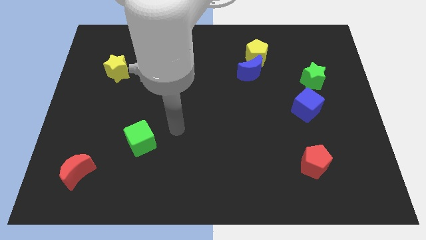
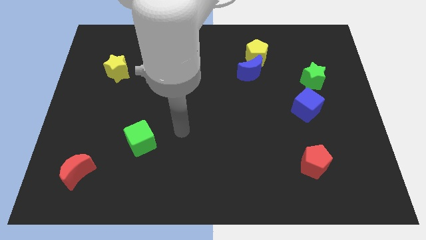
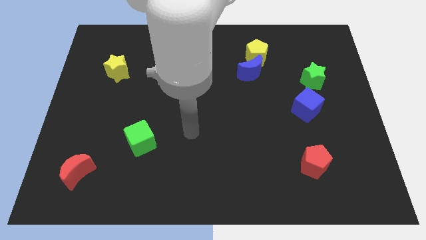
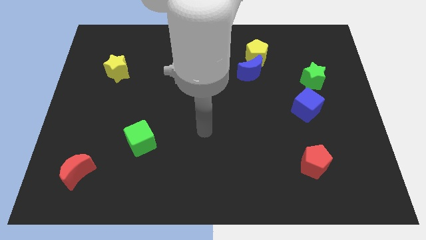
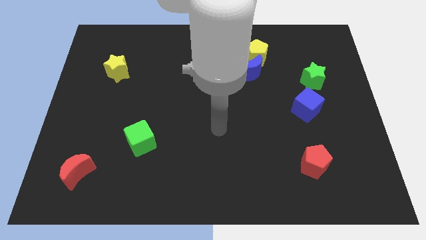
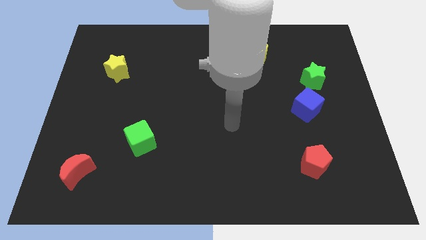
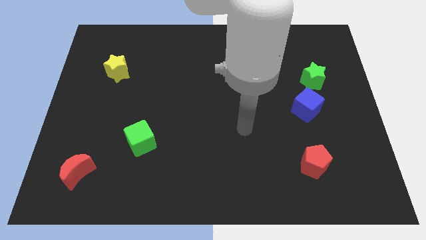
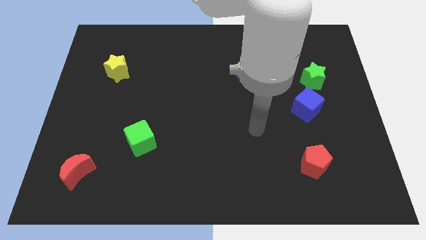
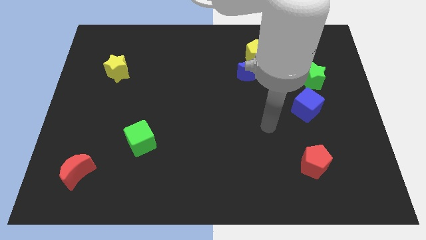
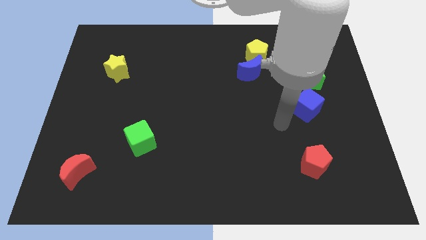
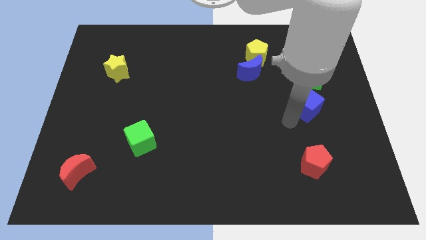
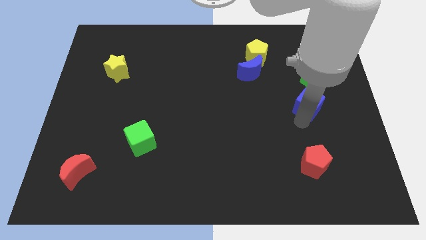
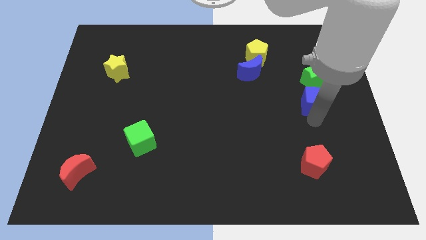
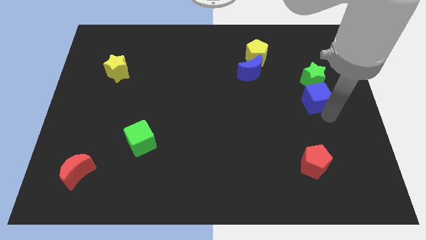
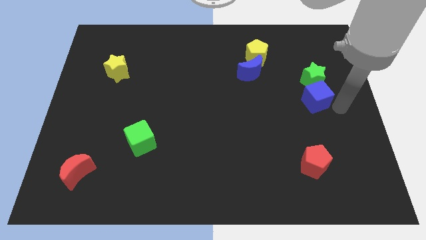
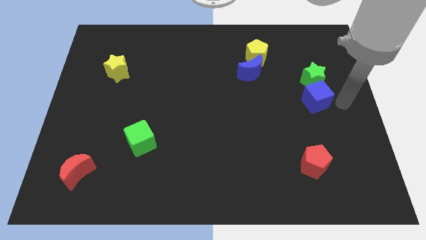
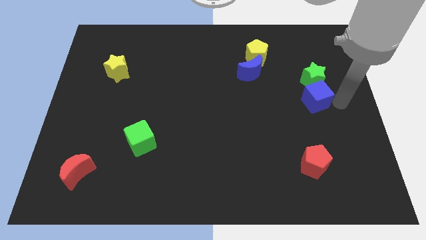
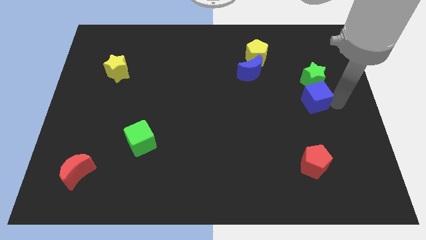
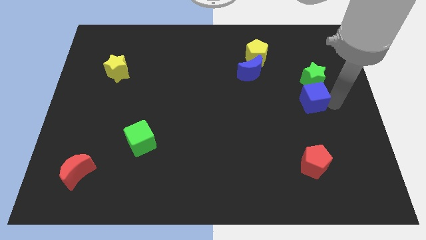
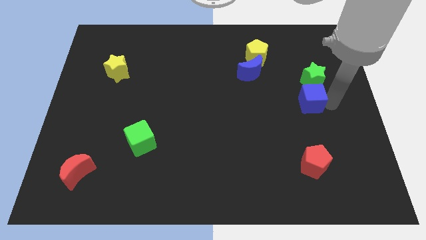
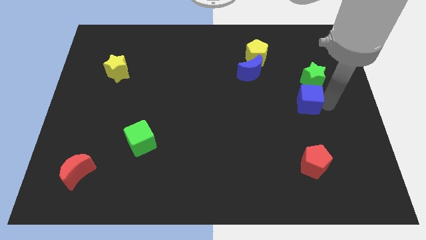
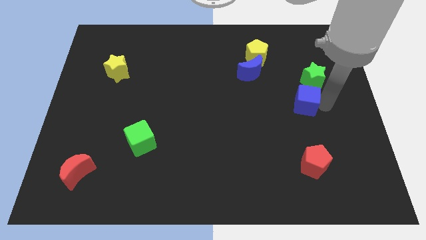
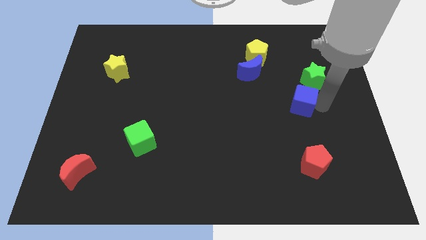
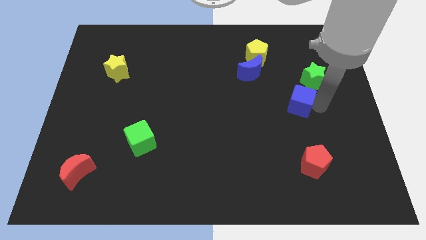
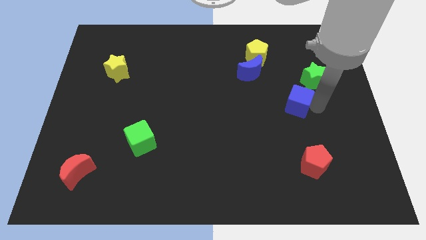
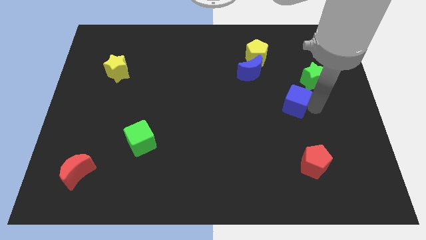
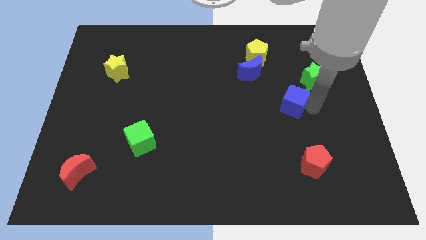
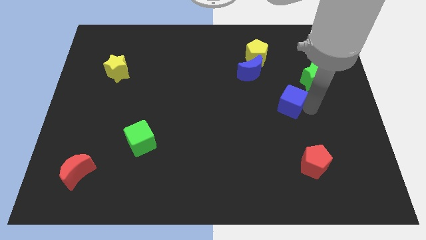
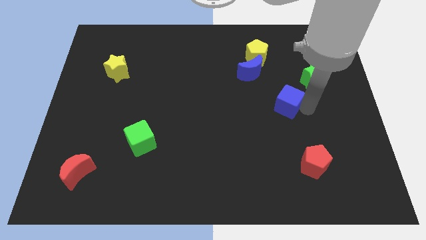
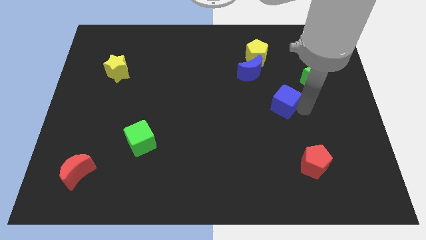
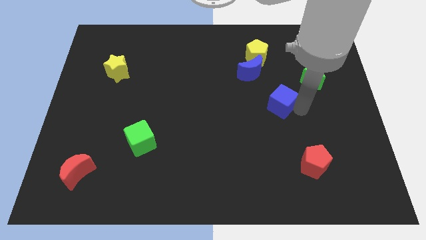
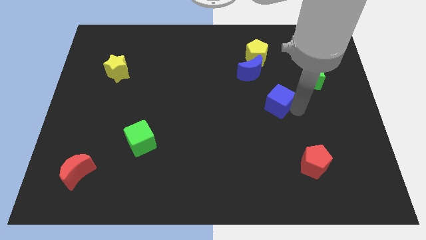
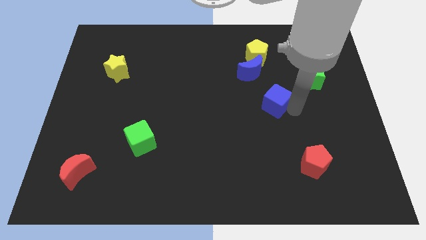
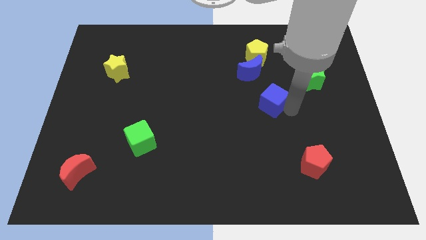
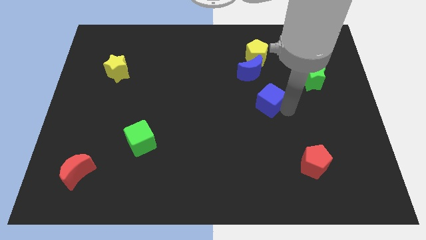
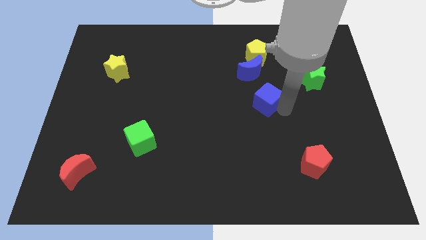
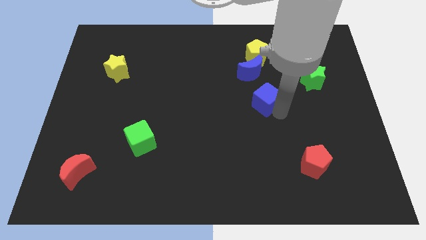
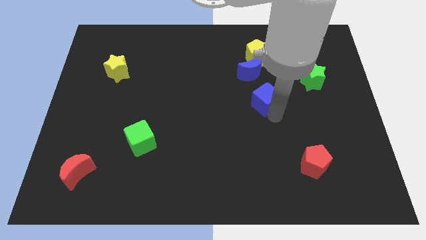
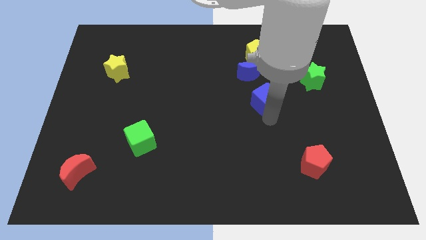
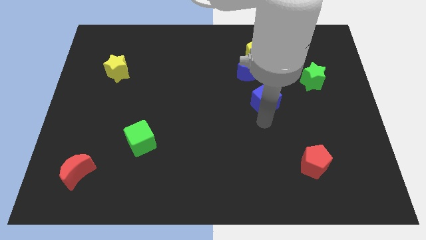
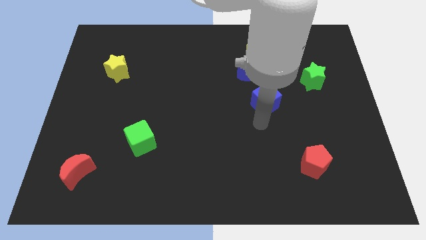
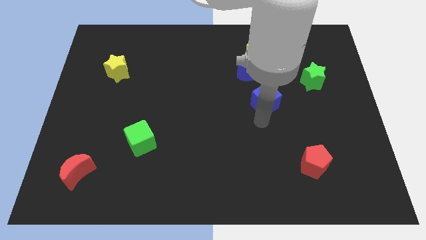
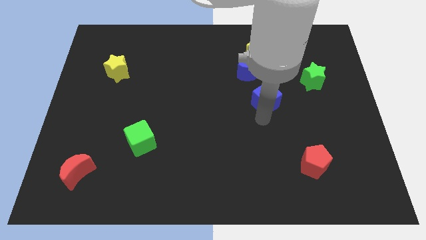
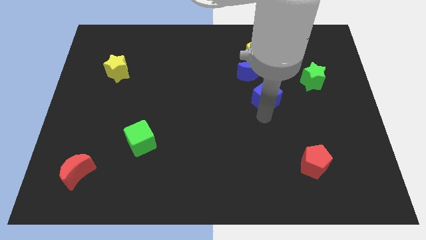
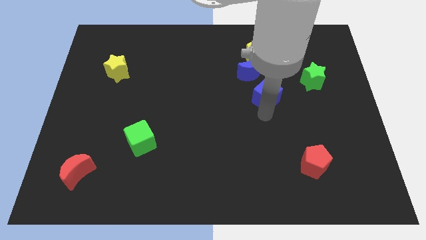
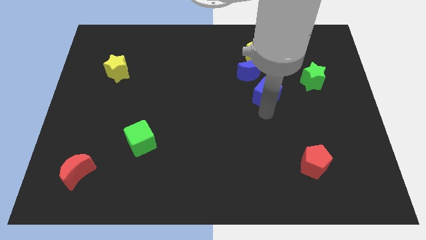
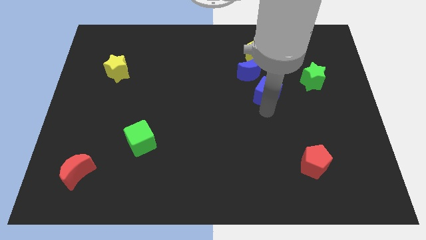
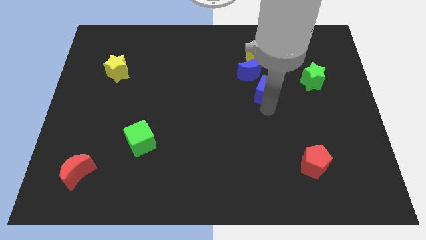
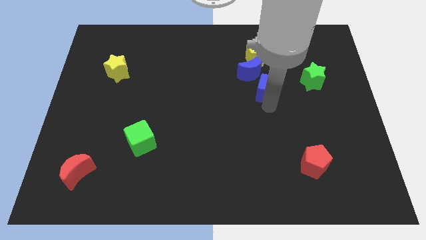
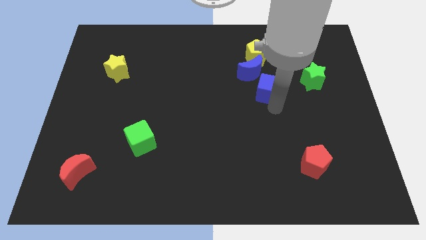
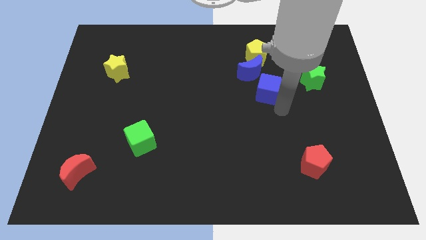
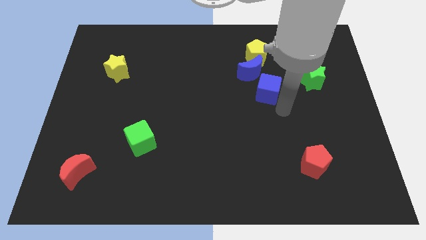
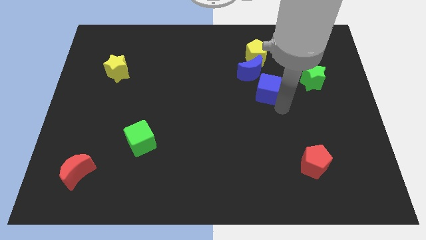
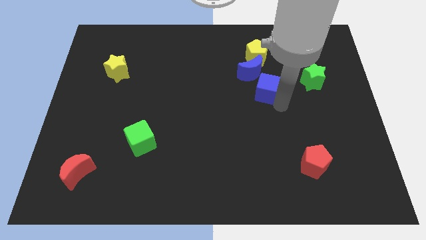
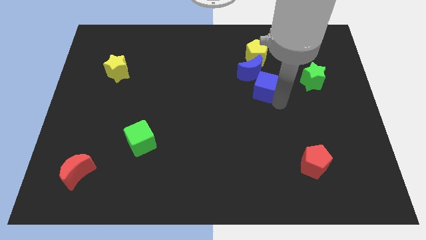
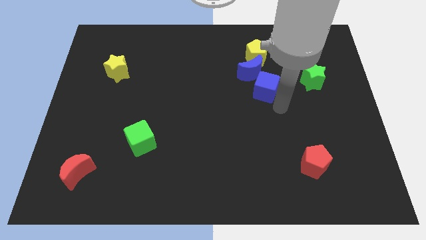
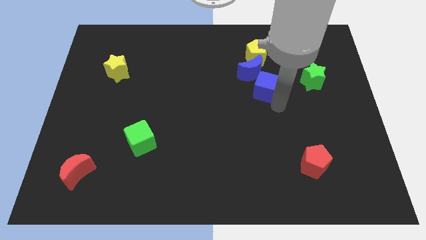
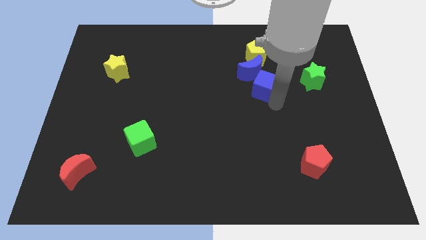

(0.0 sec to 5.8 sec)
slide the blue cube next to the blue moon

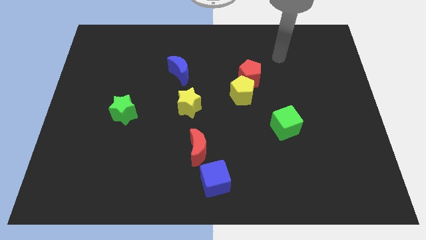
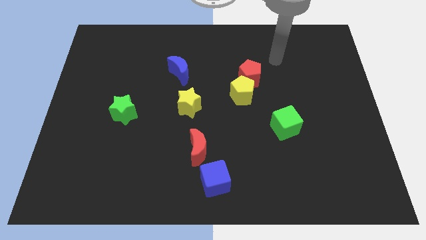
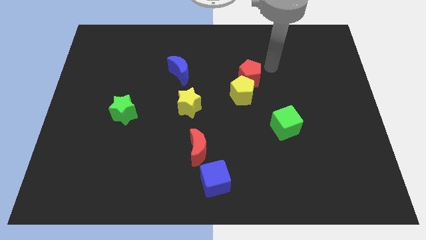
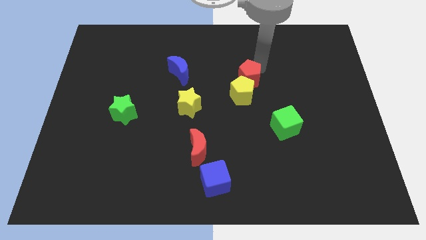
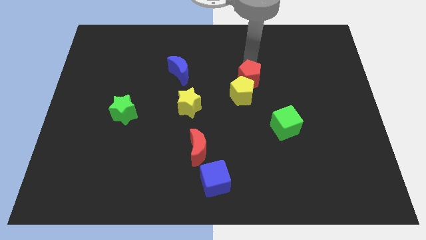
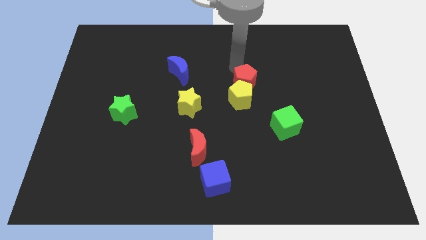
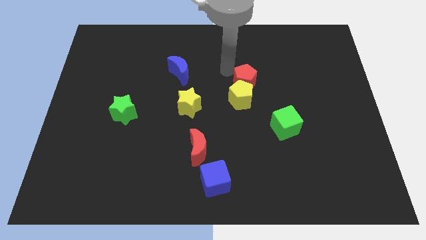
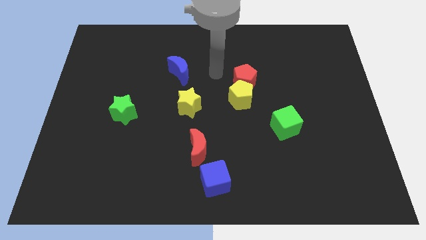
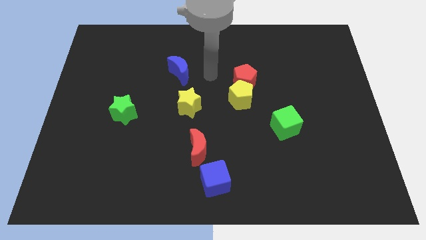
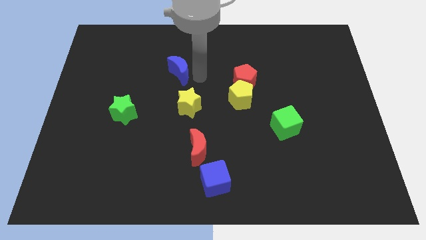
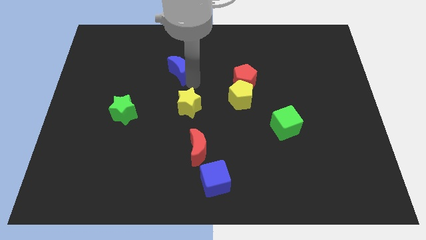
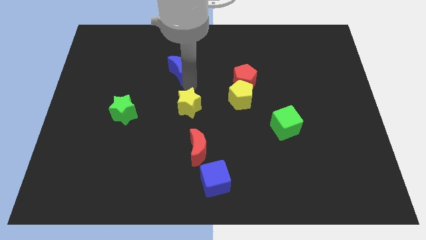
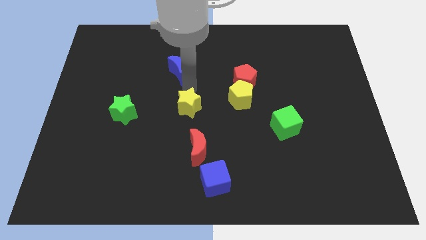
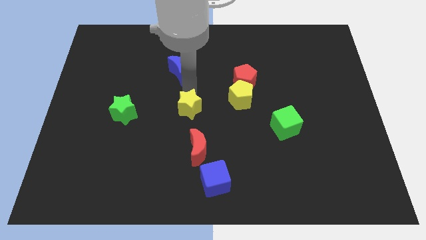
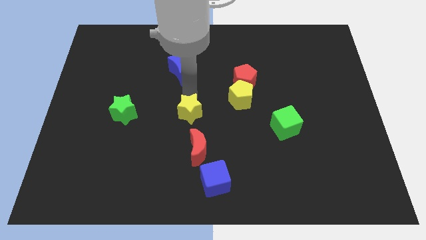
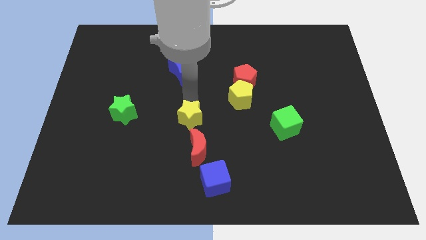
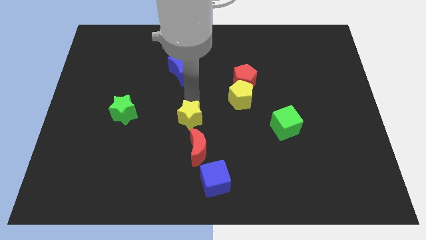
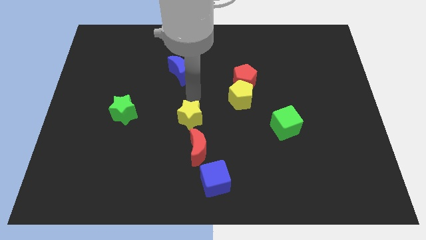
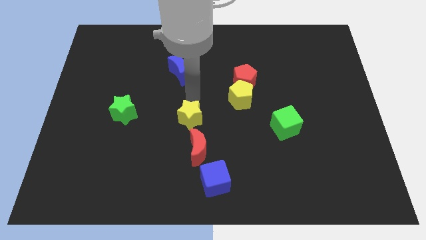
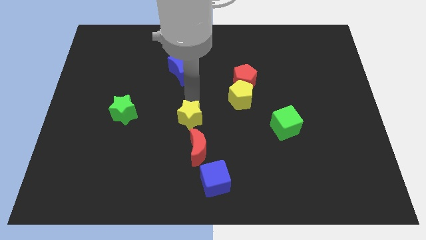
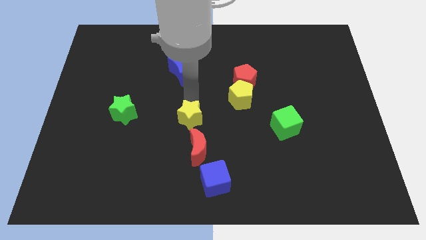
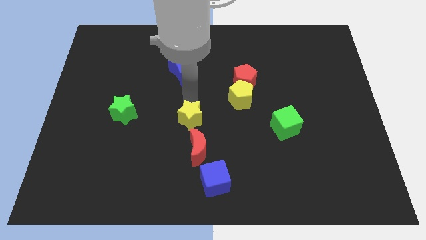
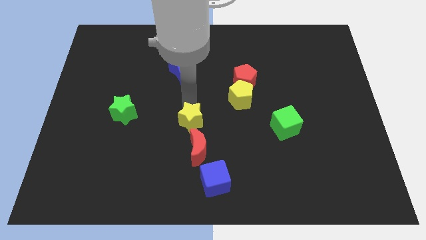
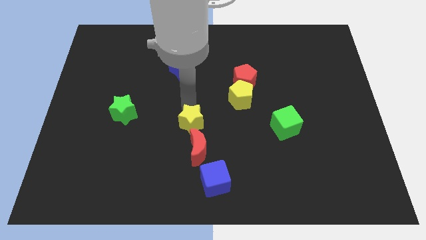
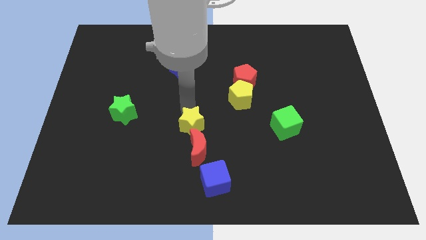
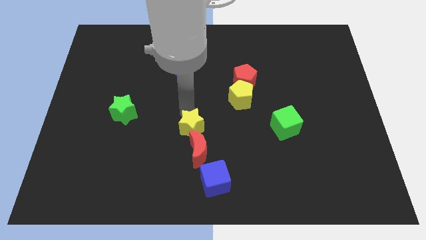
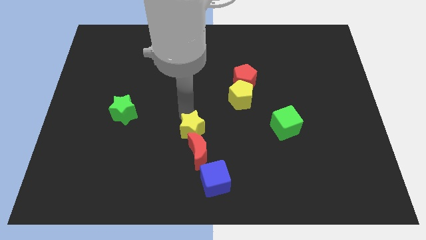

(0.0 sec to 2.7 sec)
push the yellow star next to the red moon
